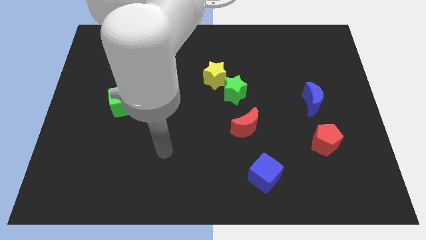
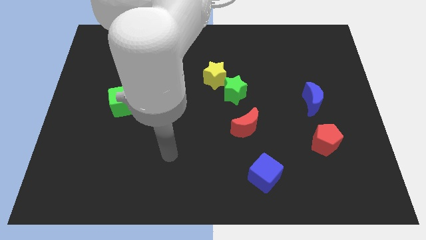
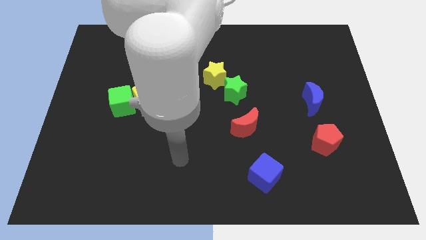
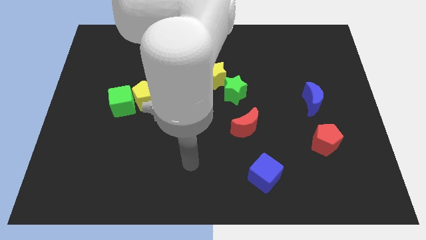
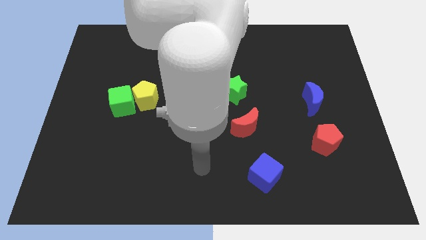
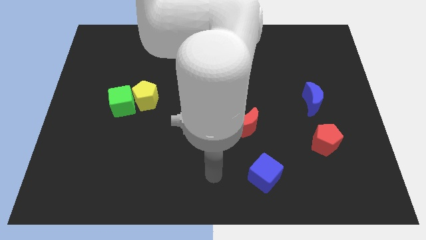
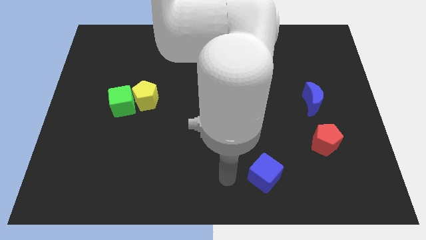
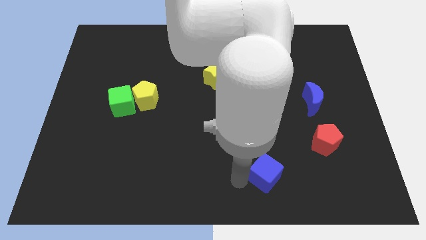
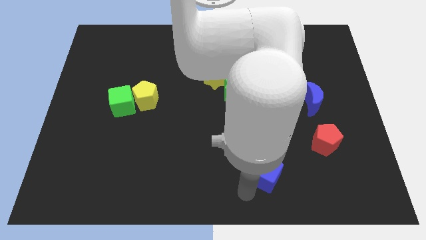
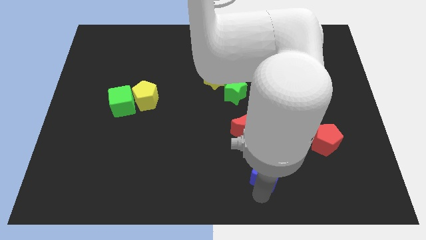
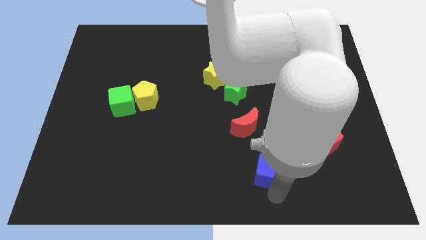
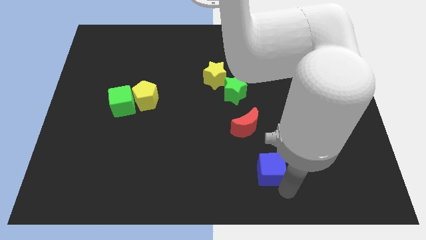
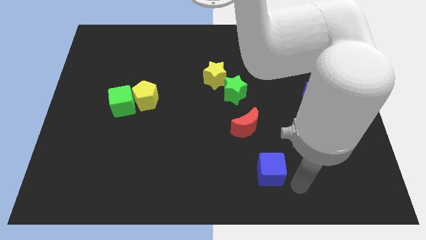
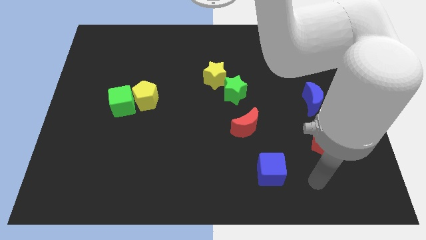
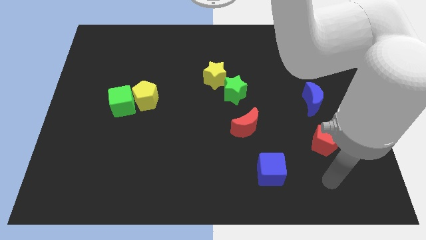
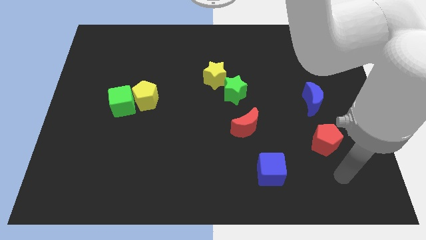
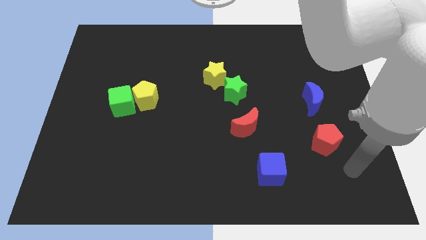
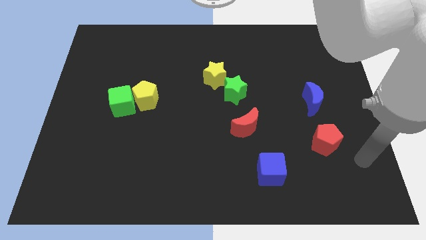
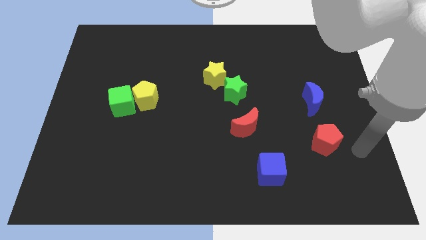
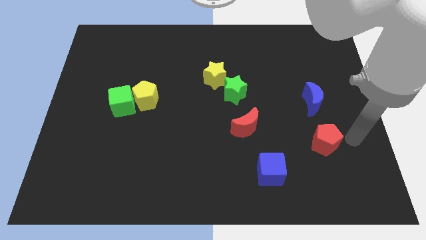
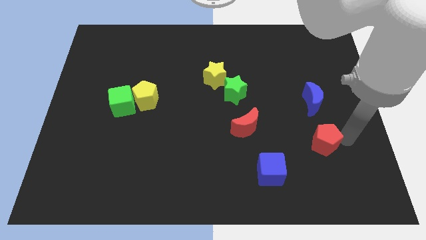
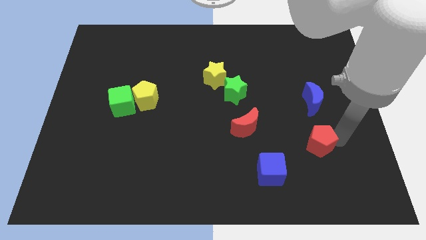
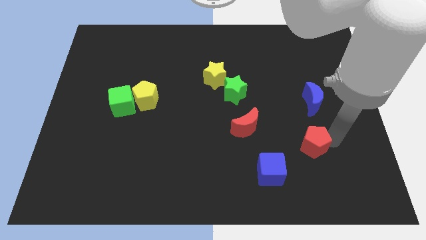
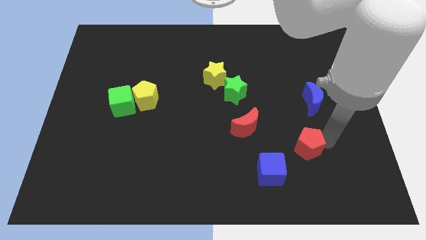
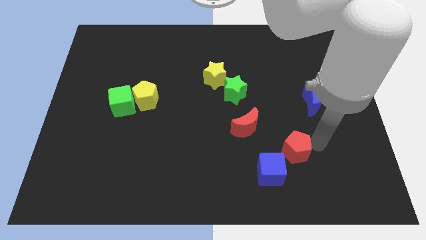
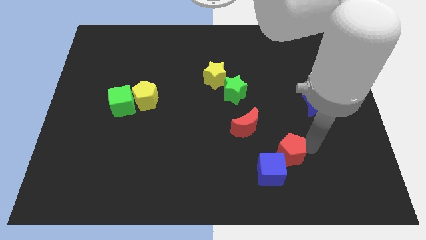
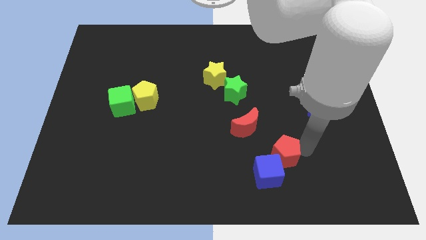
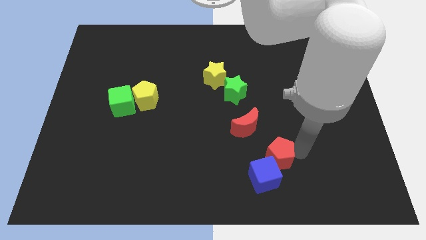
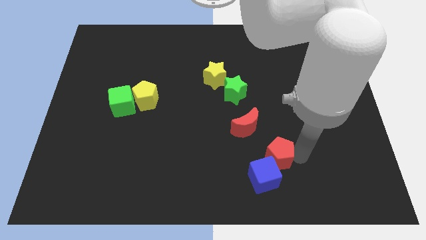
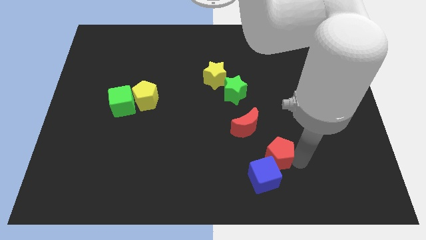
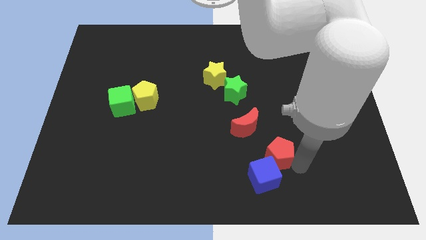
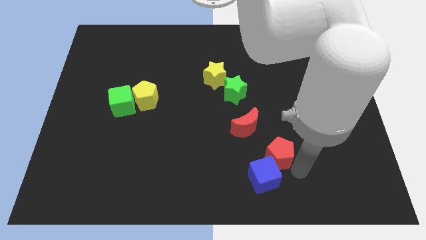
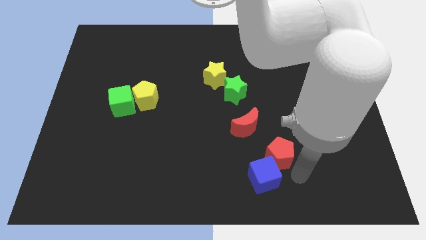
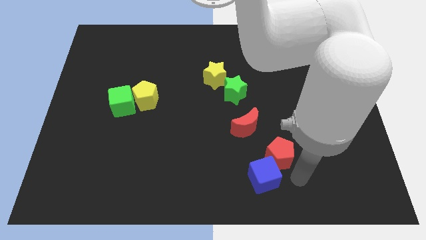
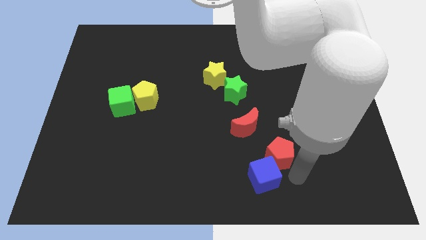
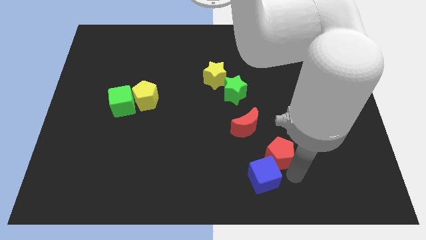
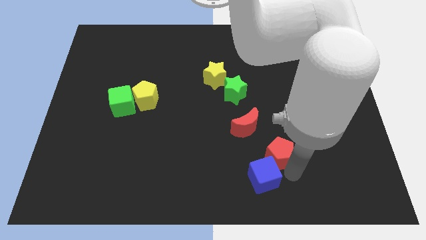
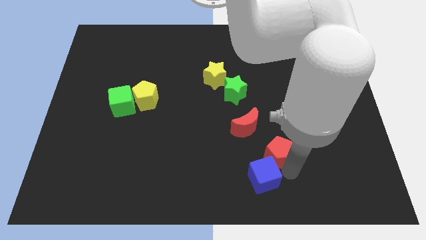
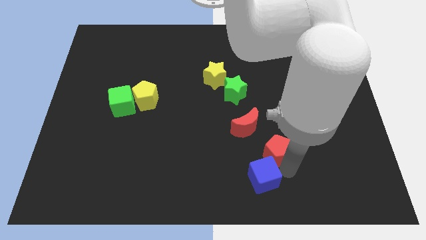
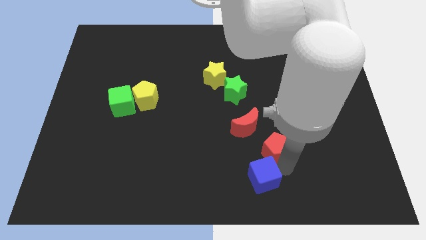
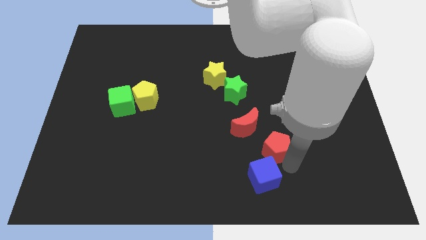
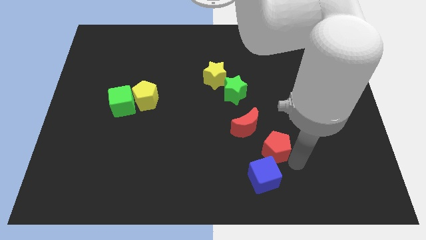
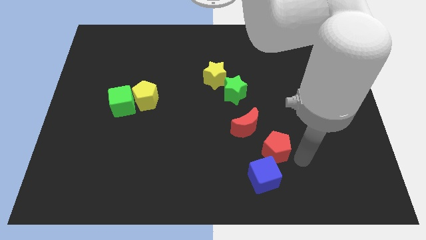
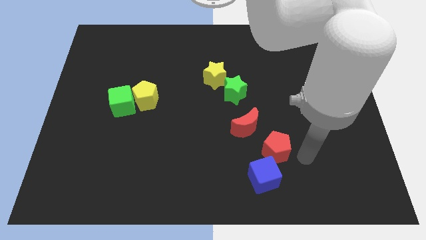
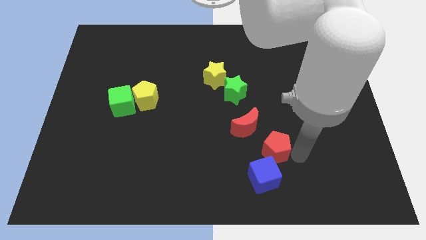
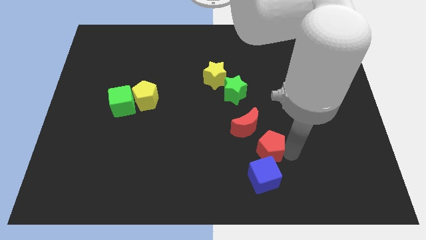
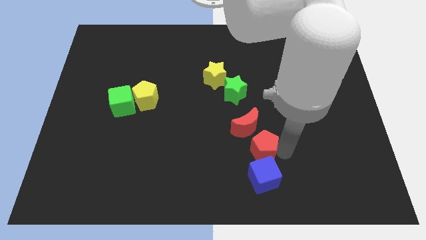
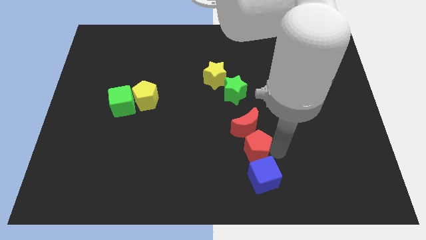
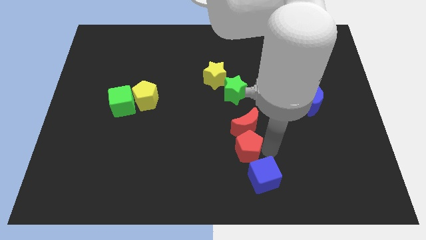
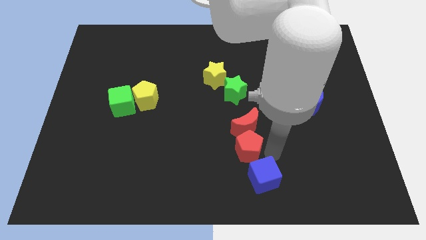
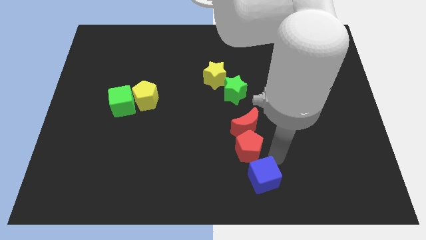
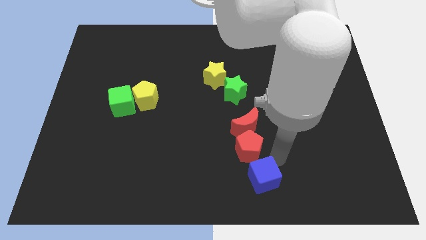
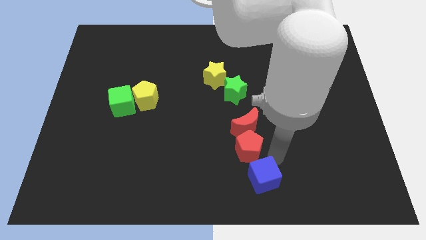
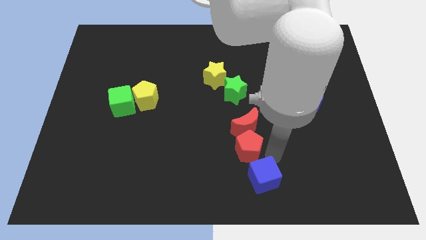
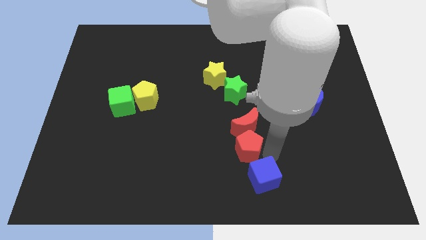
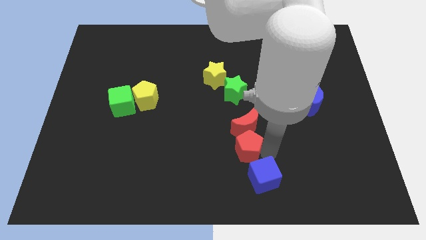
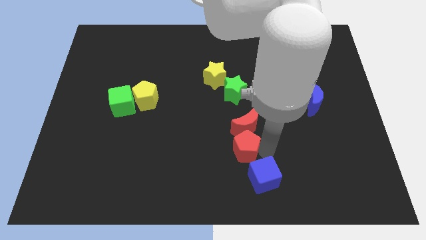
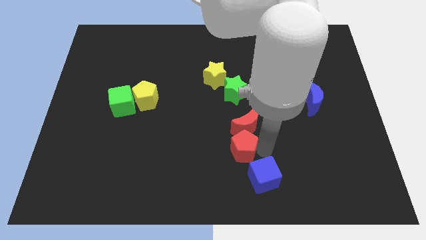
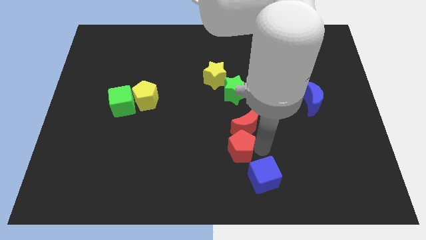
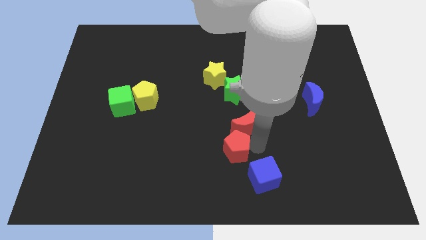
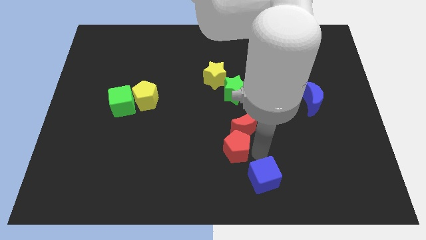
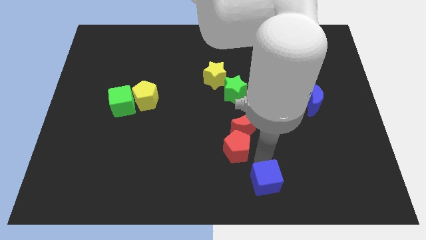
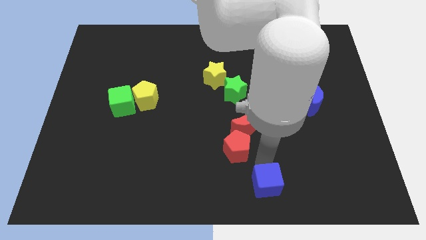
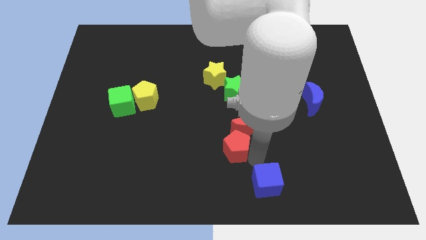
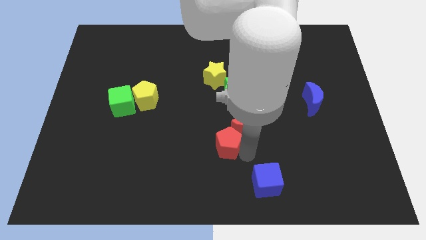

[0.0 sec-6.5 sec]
slide the red pentagon to the left side of the red moon

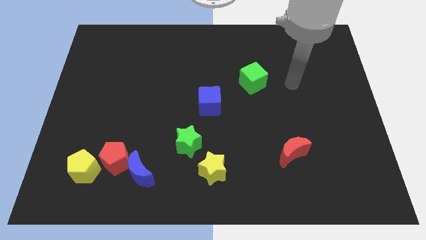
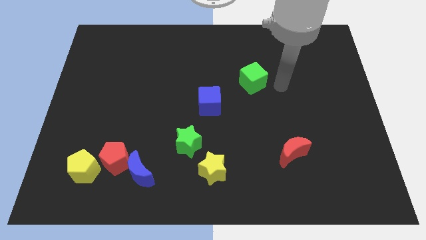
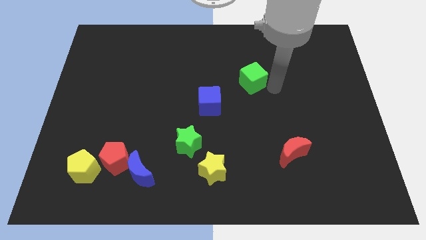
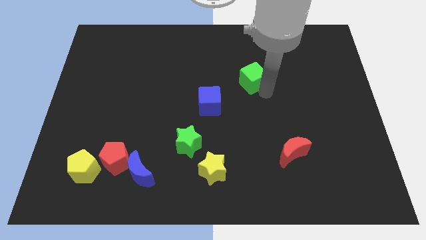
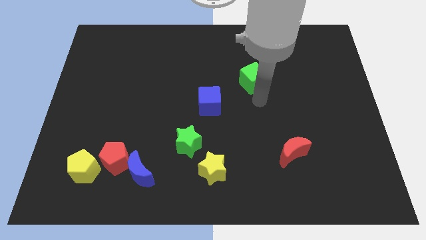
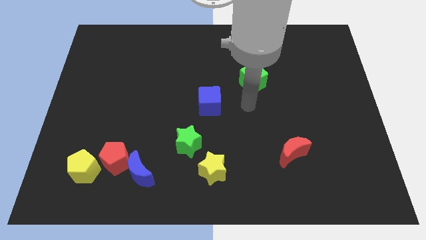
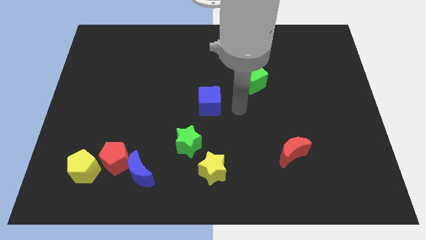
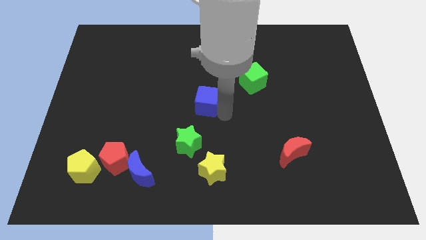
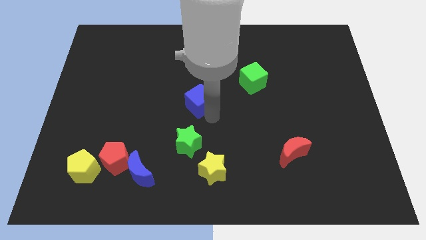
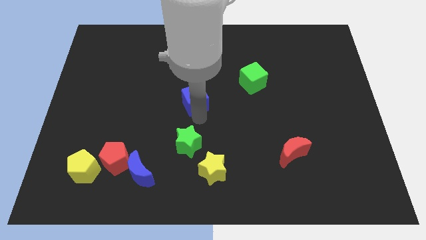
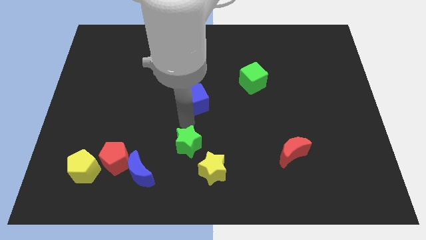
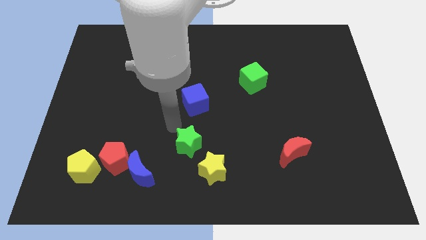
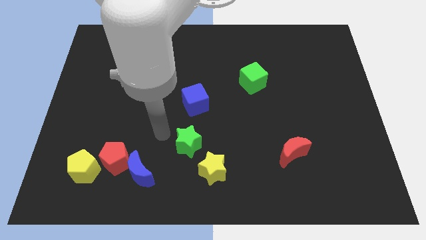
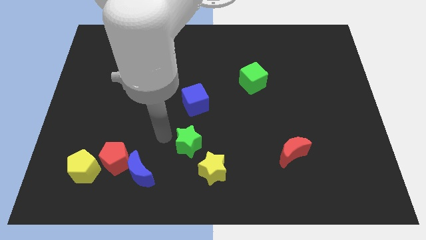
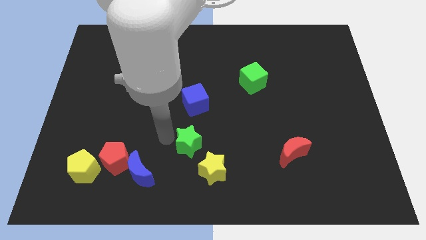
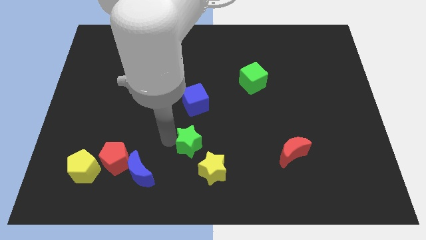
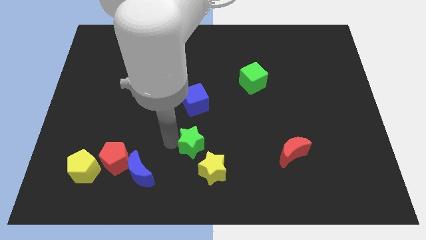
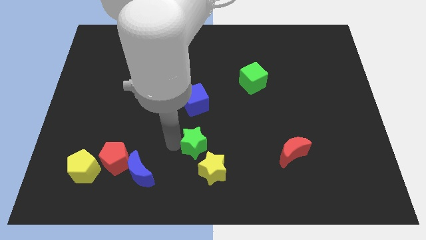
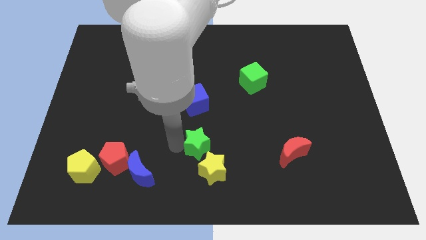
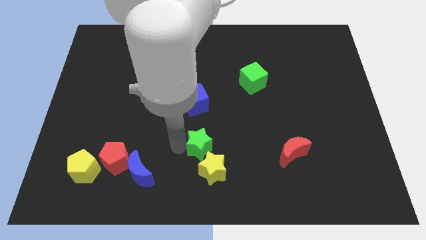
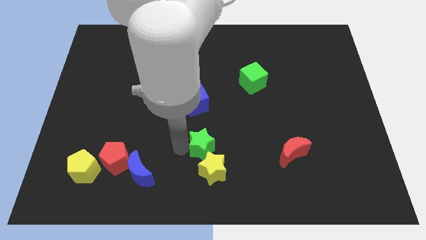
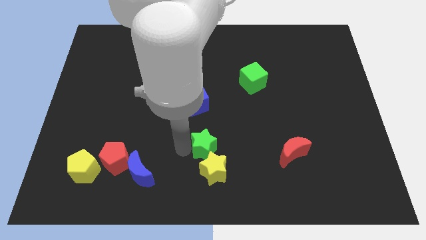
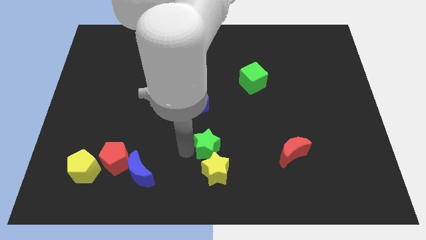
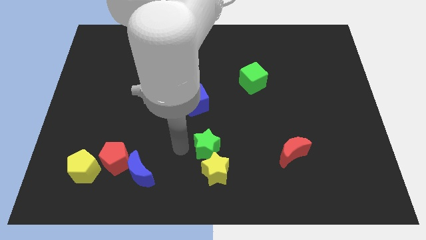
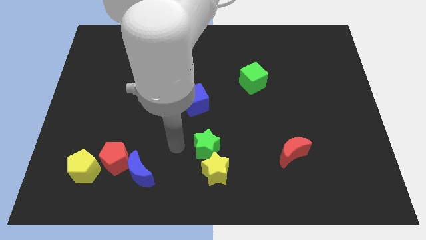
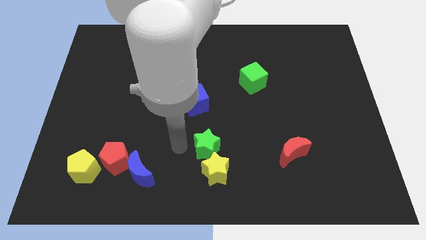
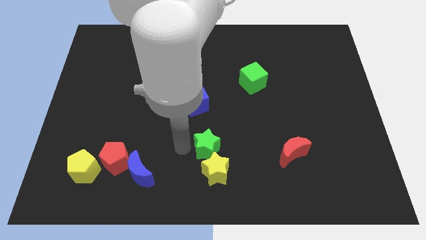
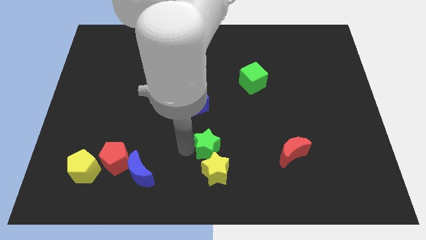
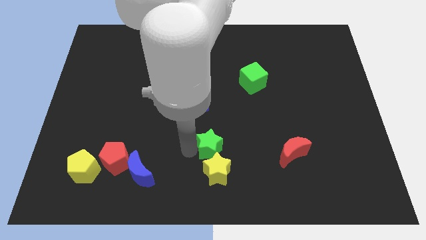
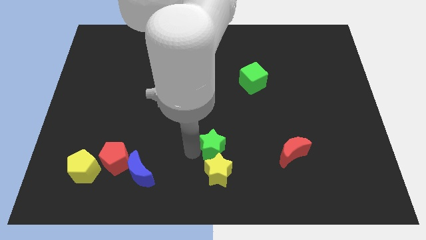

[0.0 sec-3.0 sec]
move the green star to the top right of the yellow star
